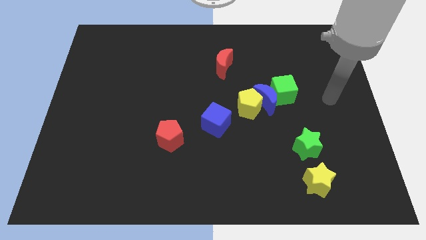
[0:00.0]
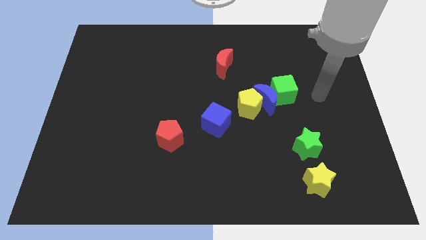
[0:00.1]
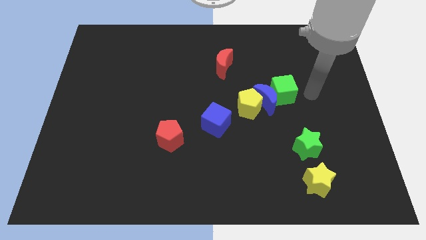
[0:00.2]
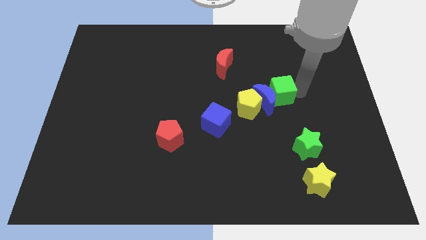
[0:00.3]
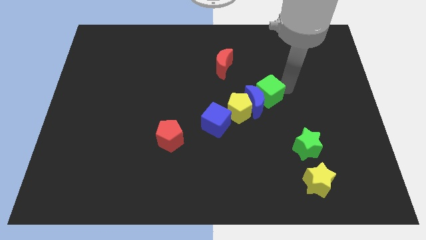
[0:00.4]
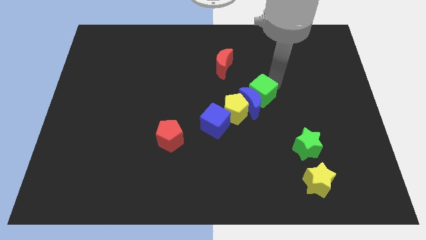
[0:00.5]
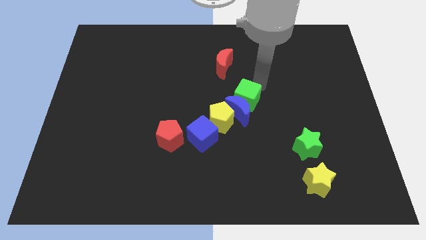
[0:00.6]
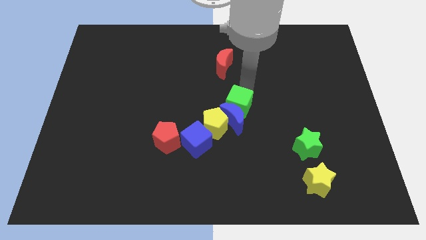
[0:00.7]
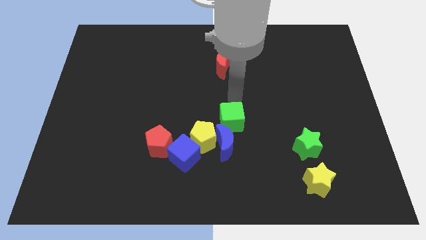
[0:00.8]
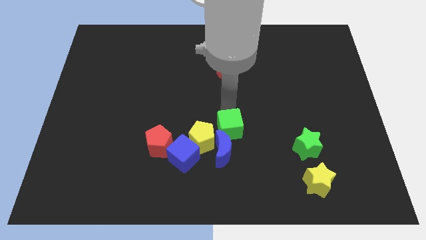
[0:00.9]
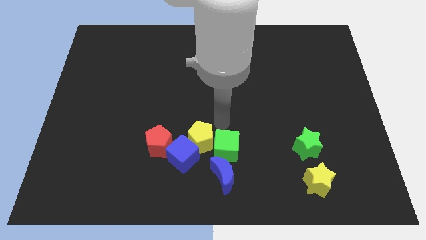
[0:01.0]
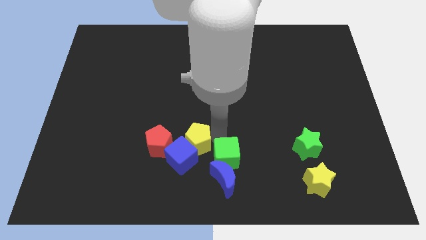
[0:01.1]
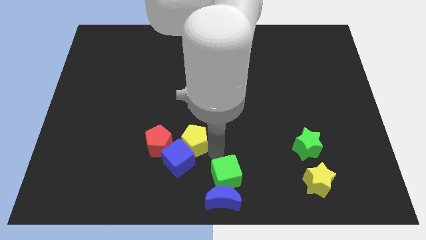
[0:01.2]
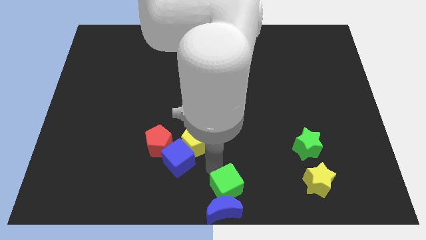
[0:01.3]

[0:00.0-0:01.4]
separate the blue moon from the yellow pentagon and green cube

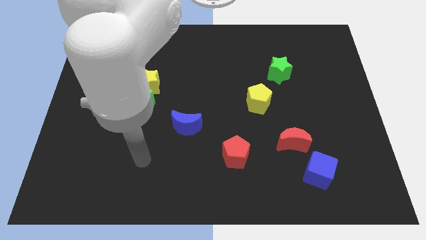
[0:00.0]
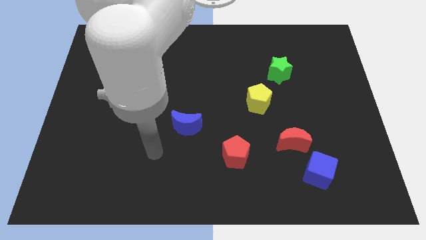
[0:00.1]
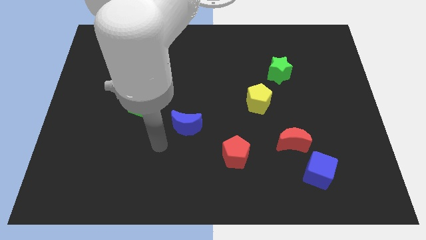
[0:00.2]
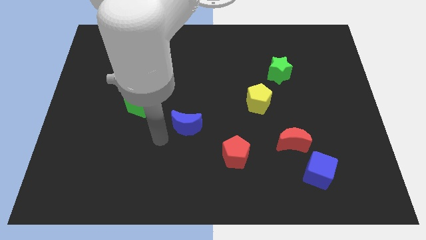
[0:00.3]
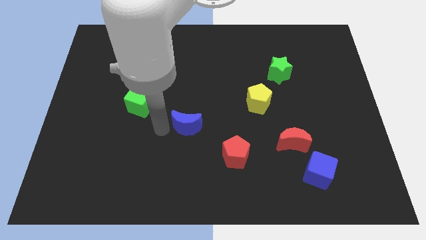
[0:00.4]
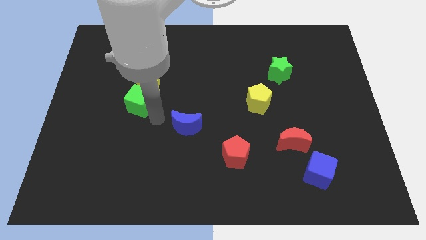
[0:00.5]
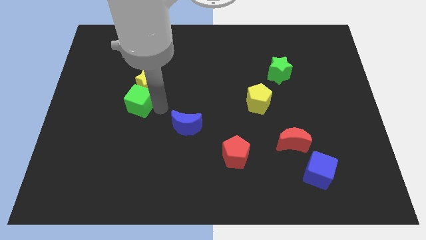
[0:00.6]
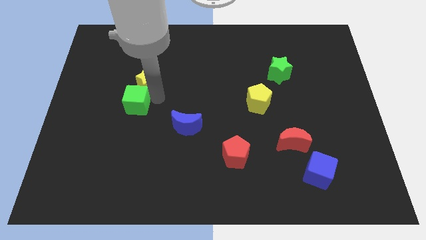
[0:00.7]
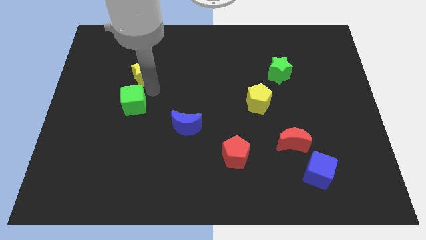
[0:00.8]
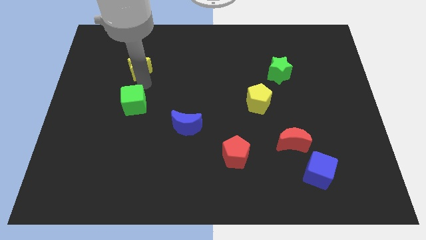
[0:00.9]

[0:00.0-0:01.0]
separate the green cube from the yellow star

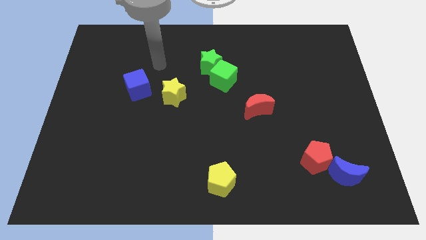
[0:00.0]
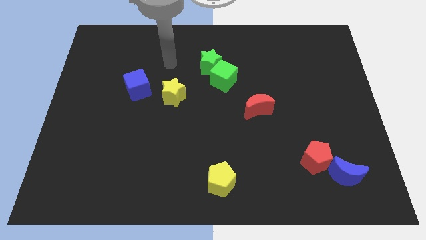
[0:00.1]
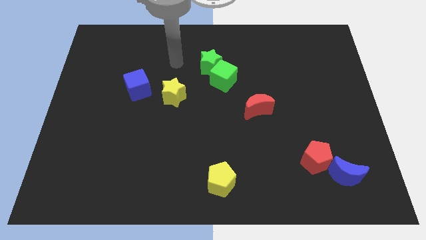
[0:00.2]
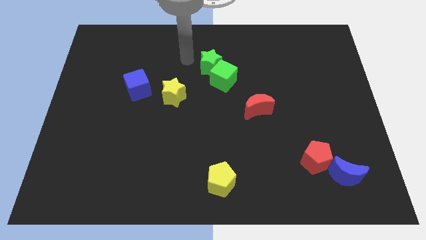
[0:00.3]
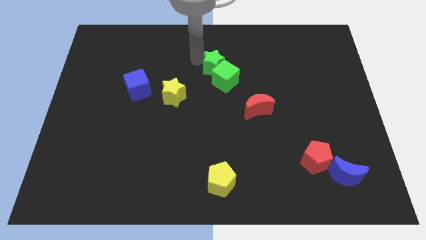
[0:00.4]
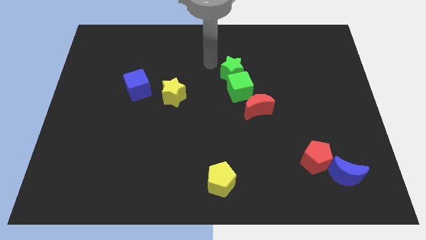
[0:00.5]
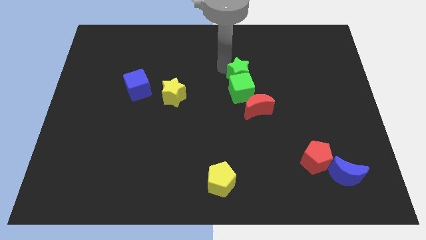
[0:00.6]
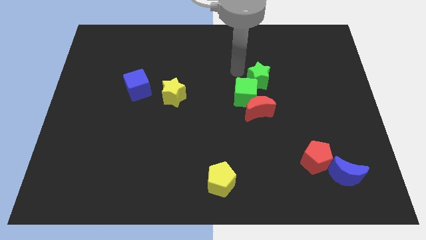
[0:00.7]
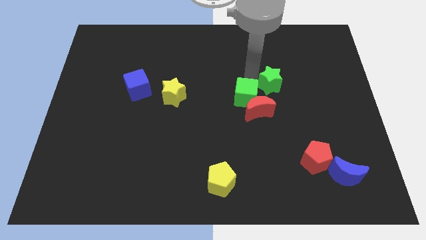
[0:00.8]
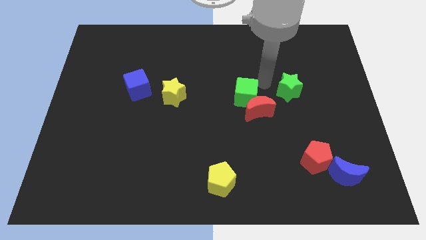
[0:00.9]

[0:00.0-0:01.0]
separate the green cube from the green star

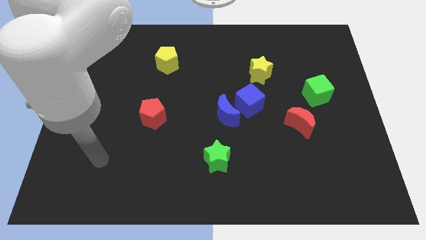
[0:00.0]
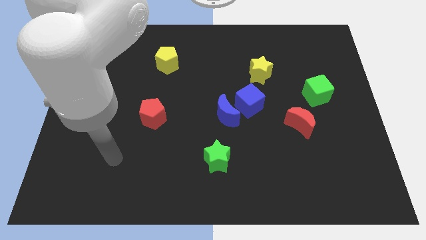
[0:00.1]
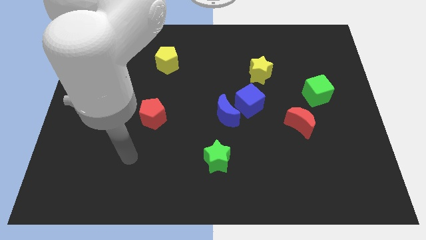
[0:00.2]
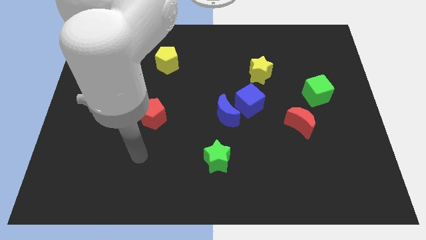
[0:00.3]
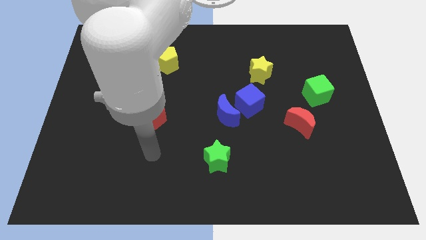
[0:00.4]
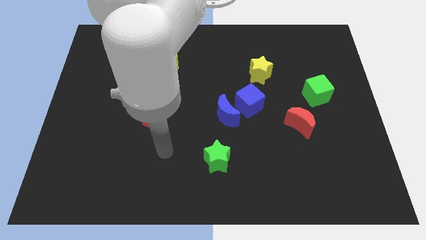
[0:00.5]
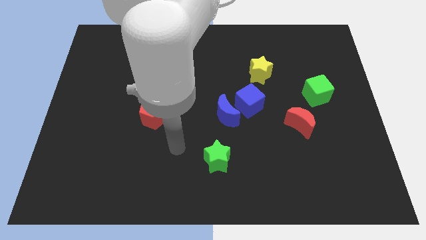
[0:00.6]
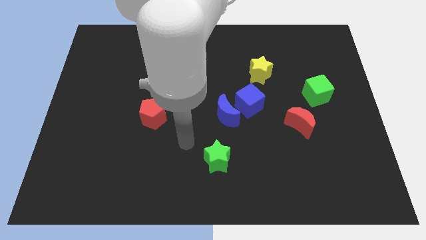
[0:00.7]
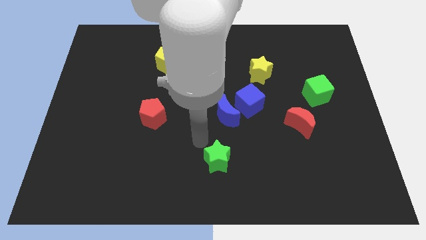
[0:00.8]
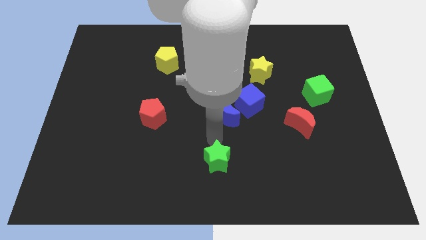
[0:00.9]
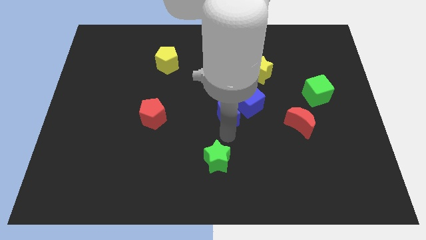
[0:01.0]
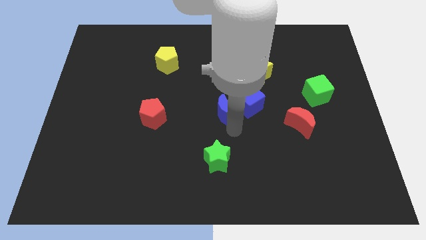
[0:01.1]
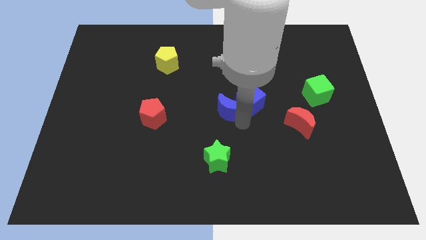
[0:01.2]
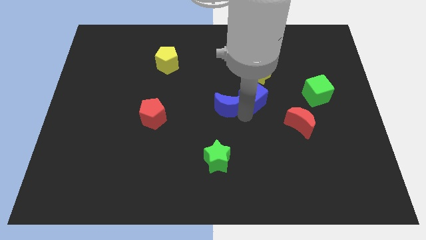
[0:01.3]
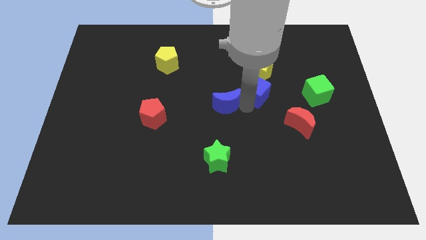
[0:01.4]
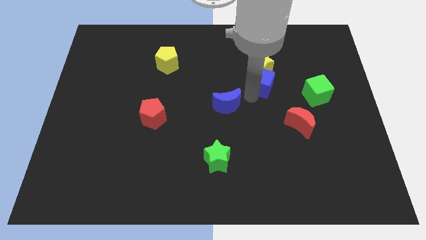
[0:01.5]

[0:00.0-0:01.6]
pull the blue moon apart from the blue cube

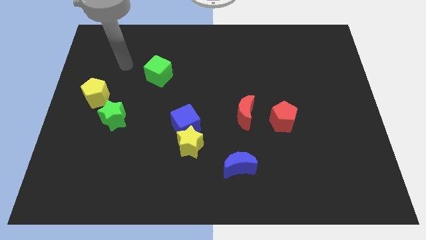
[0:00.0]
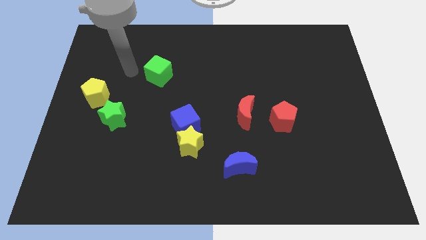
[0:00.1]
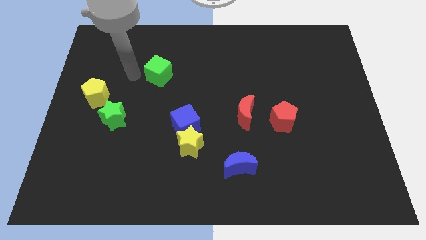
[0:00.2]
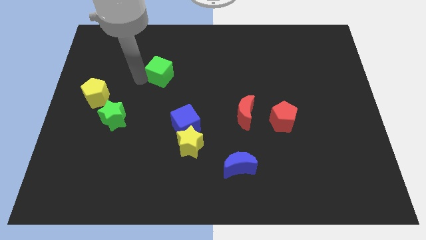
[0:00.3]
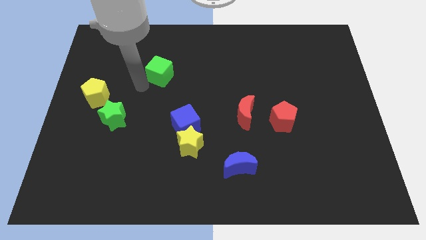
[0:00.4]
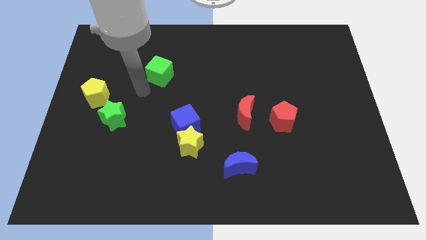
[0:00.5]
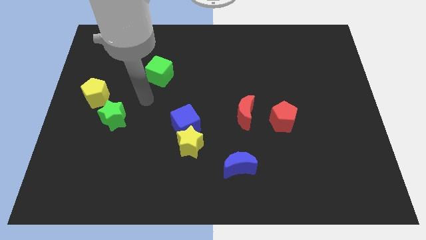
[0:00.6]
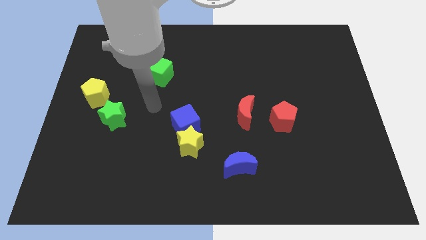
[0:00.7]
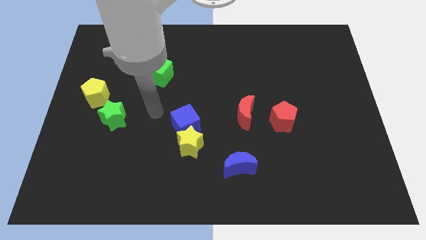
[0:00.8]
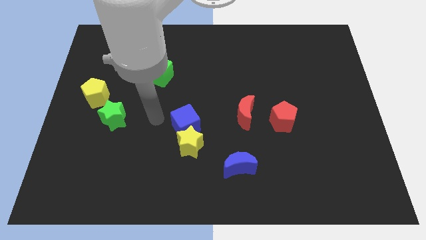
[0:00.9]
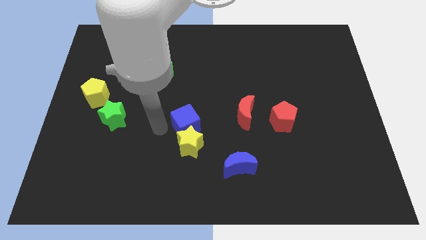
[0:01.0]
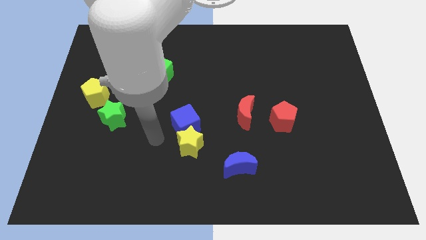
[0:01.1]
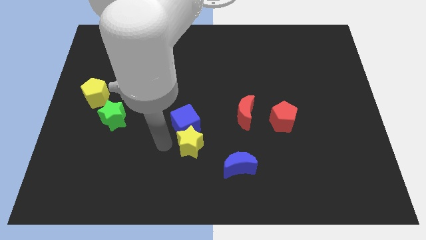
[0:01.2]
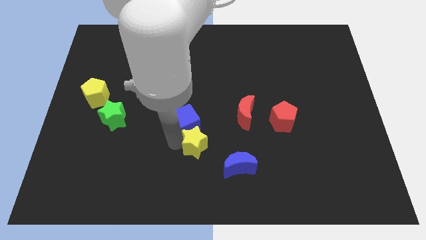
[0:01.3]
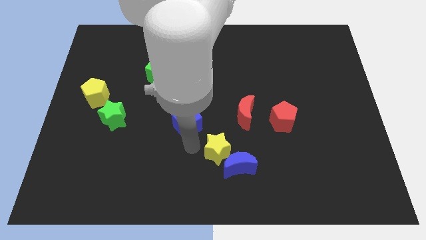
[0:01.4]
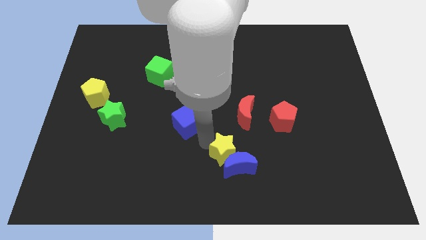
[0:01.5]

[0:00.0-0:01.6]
move the blue cube away from the yellow star

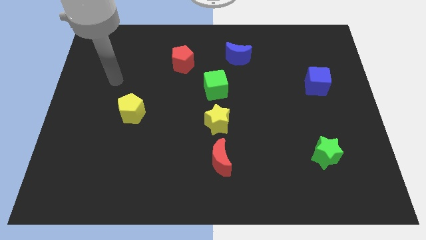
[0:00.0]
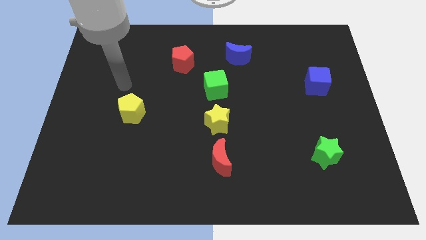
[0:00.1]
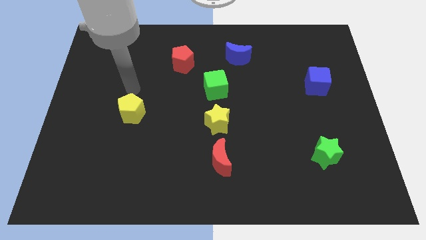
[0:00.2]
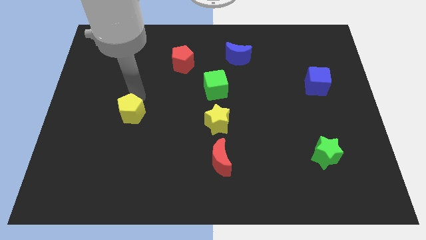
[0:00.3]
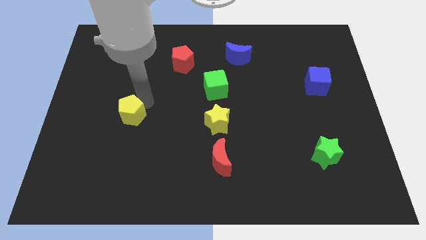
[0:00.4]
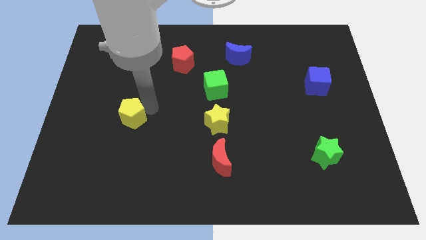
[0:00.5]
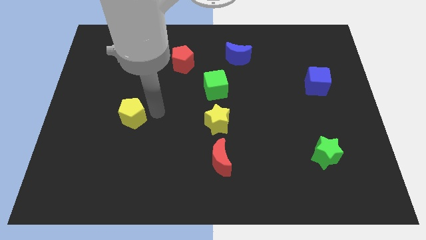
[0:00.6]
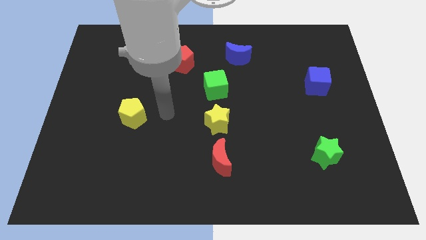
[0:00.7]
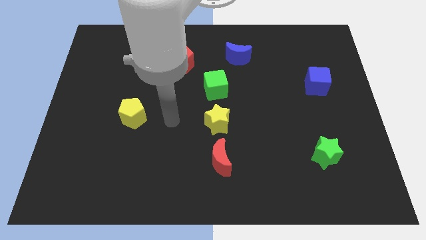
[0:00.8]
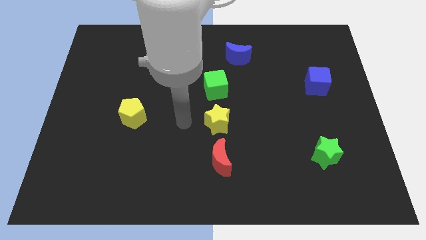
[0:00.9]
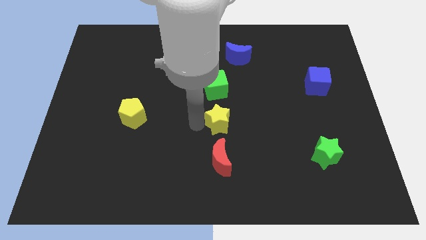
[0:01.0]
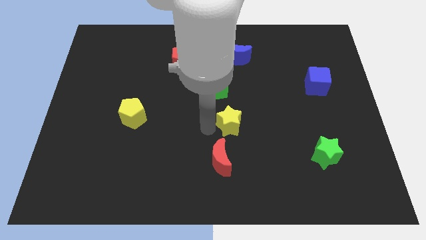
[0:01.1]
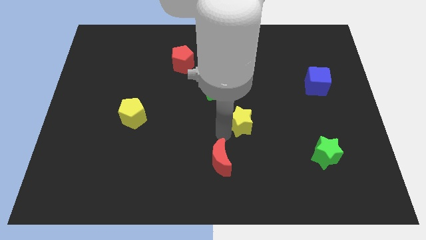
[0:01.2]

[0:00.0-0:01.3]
separate the red moon from the yellow star

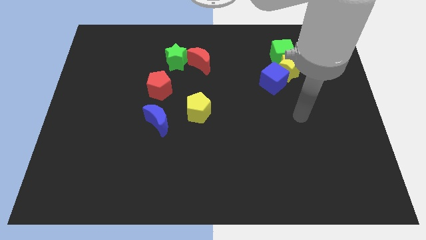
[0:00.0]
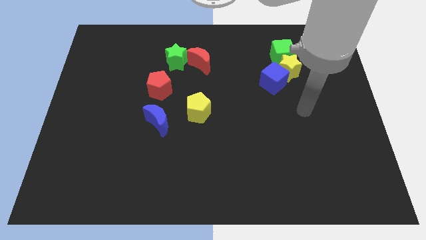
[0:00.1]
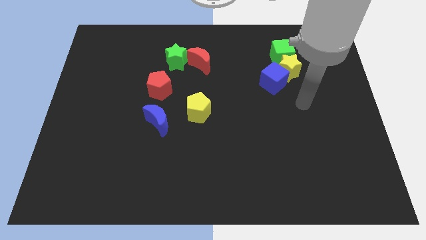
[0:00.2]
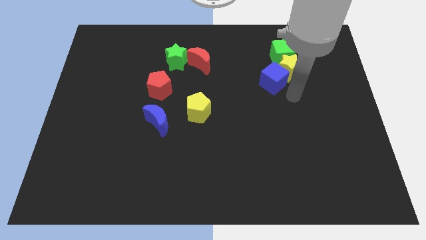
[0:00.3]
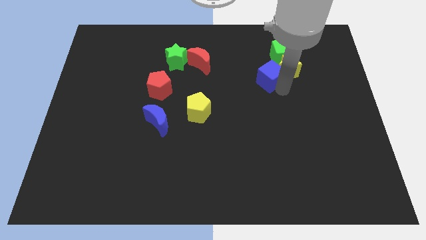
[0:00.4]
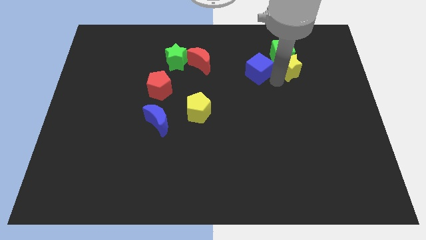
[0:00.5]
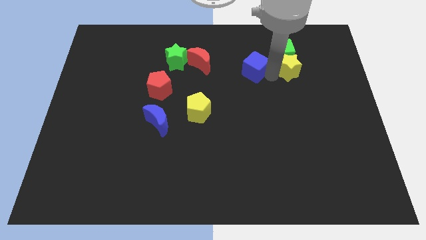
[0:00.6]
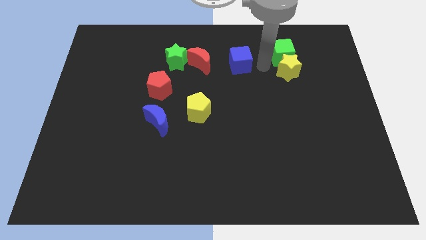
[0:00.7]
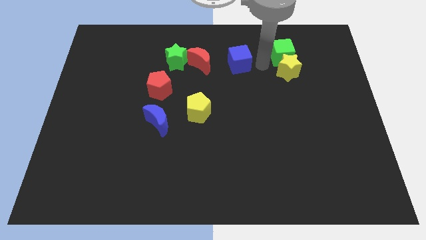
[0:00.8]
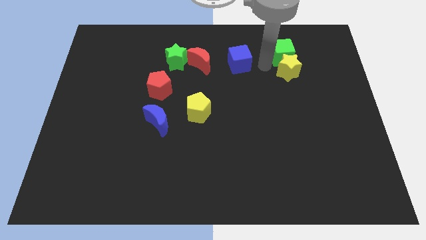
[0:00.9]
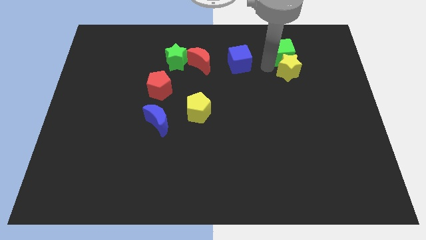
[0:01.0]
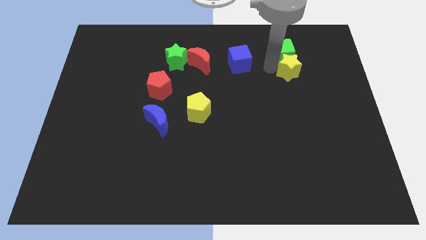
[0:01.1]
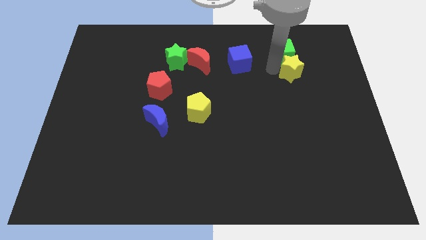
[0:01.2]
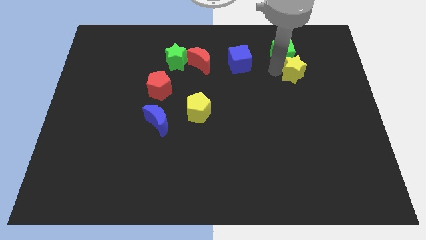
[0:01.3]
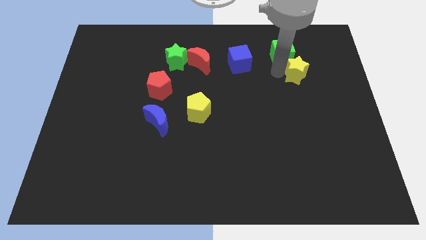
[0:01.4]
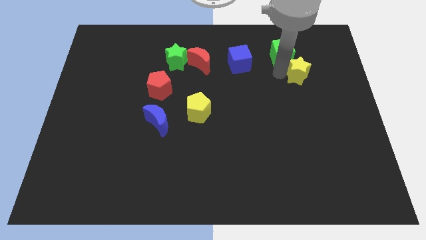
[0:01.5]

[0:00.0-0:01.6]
pull the yellow star apart from the green cube and blue cube
